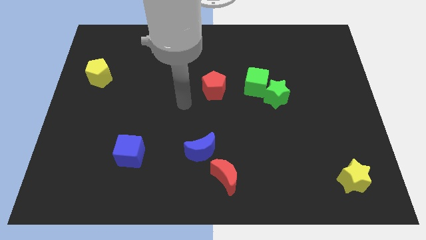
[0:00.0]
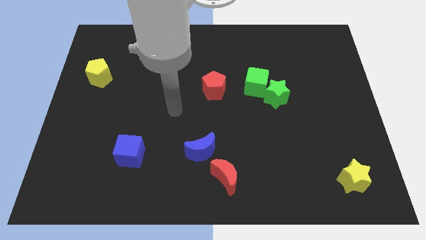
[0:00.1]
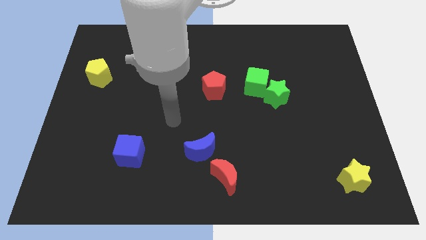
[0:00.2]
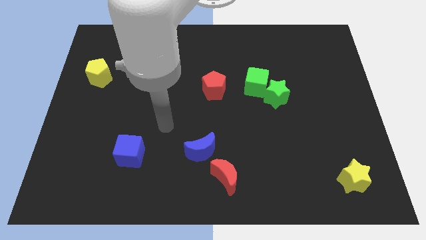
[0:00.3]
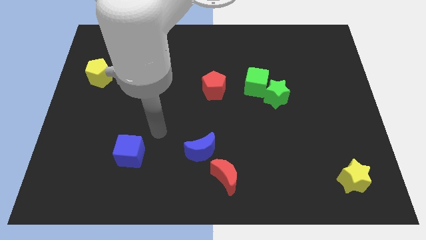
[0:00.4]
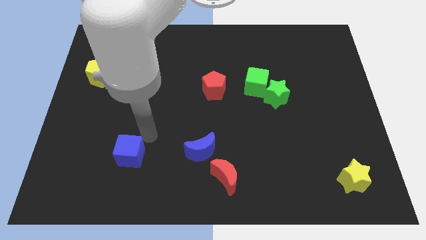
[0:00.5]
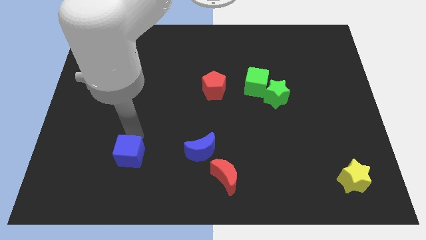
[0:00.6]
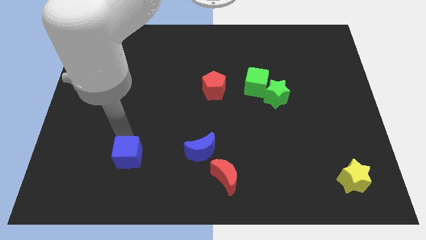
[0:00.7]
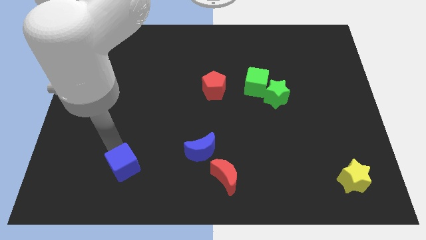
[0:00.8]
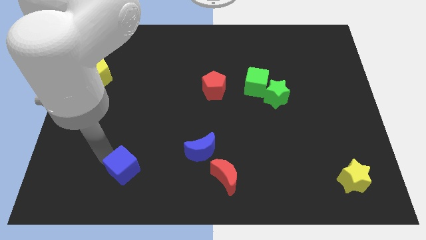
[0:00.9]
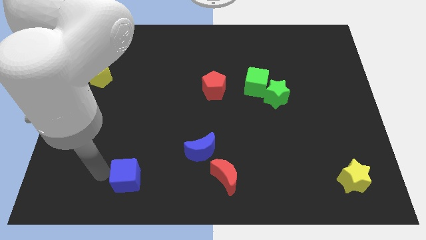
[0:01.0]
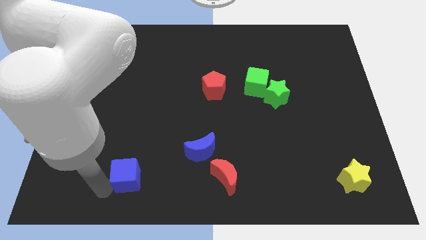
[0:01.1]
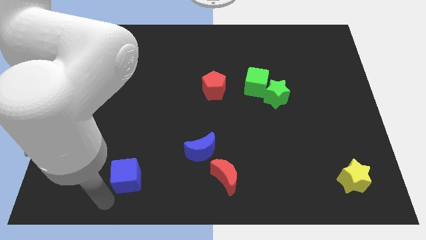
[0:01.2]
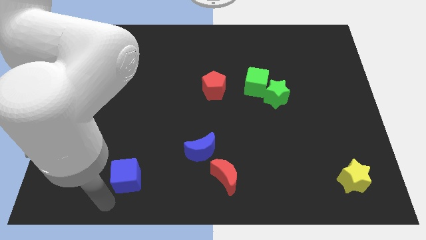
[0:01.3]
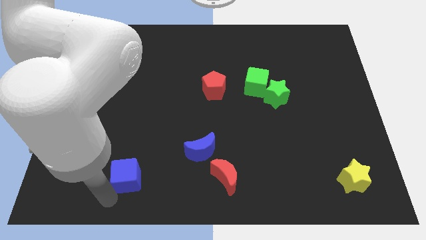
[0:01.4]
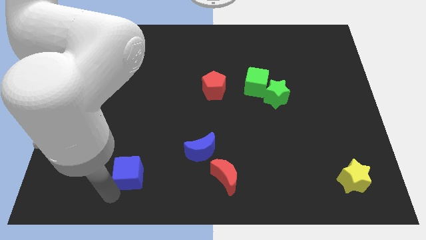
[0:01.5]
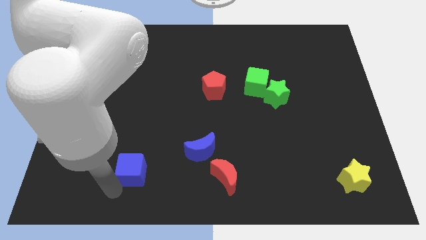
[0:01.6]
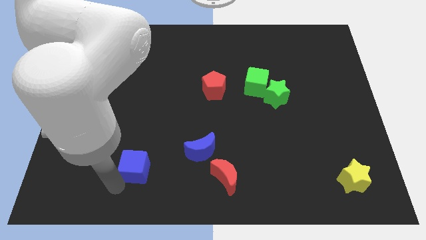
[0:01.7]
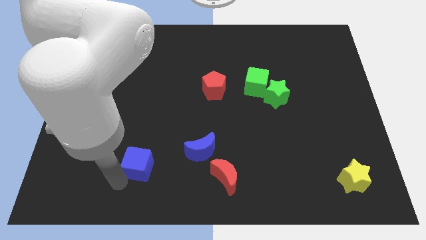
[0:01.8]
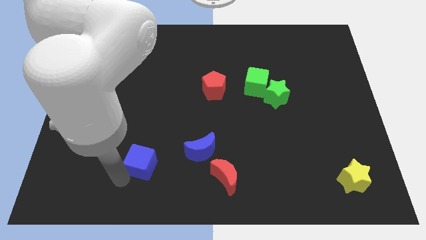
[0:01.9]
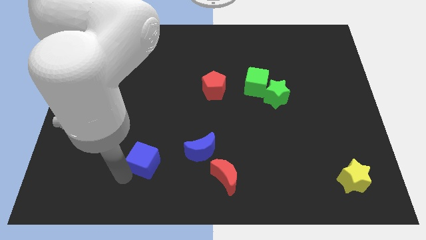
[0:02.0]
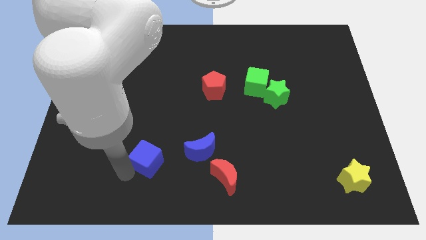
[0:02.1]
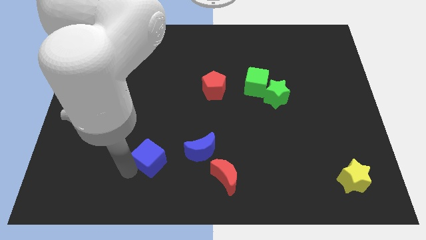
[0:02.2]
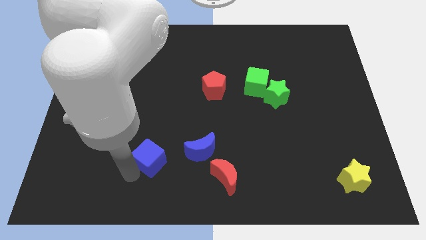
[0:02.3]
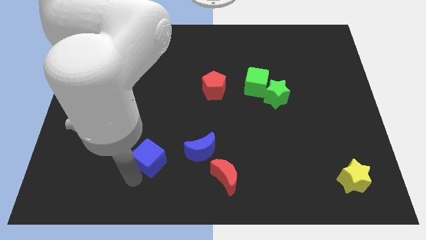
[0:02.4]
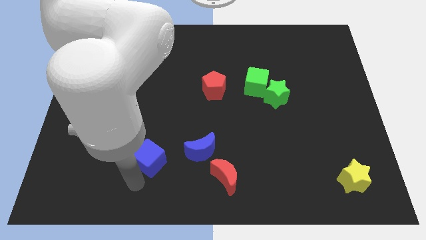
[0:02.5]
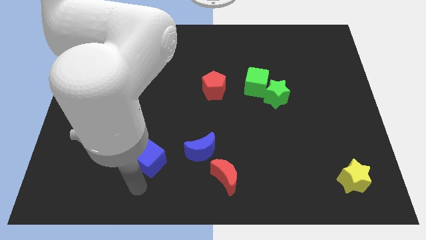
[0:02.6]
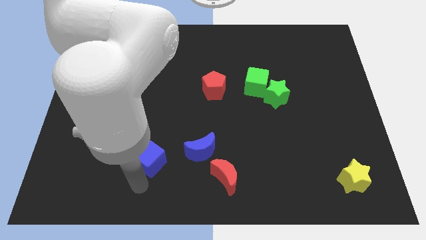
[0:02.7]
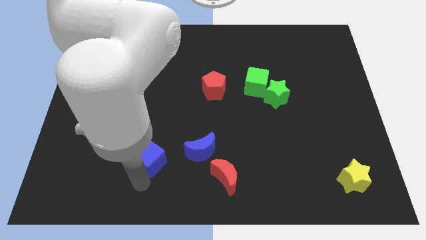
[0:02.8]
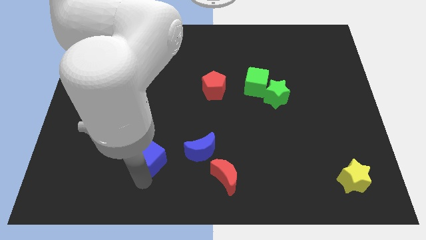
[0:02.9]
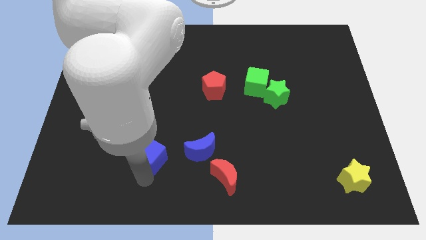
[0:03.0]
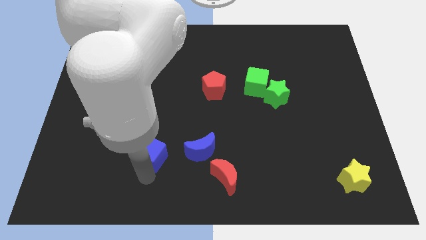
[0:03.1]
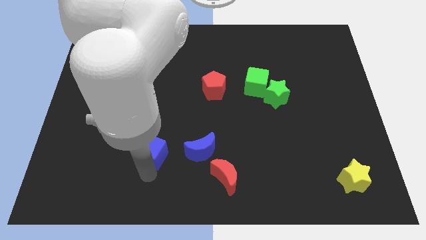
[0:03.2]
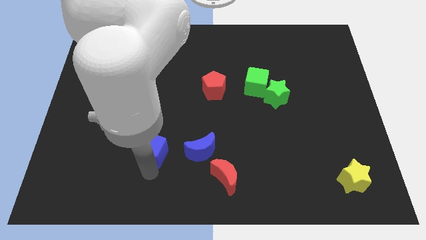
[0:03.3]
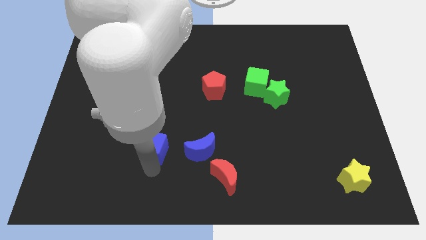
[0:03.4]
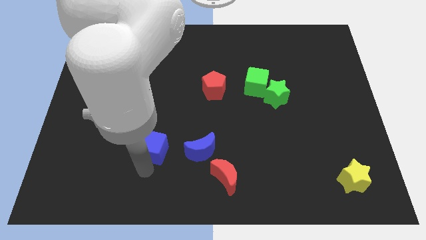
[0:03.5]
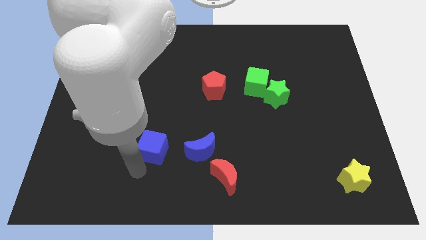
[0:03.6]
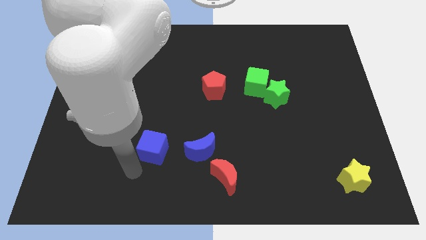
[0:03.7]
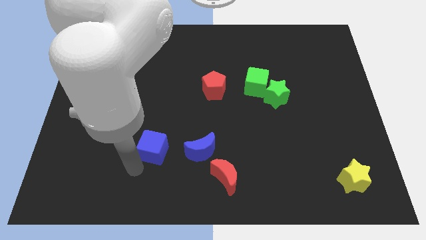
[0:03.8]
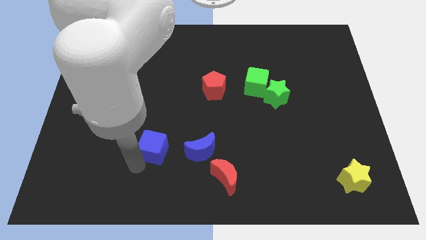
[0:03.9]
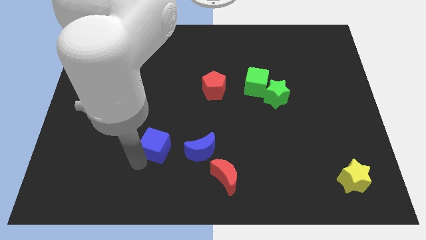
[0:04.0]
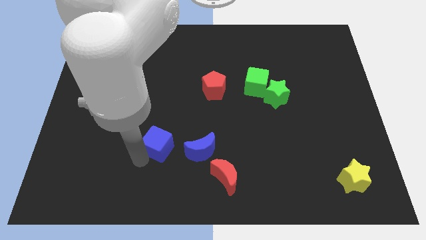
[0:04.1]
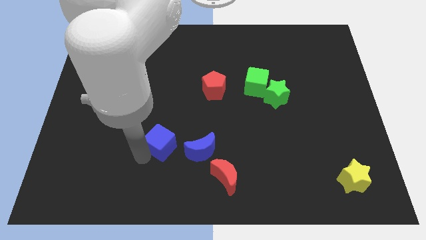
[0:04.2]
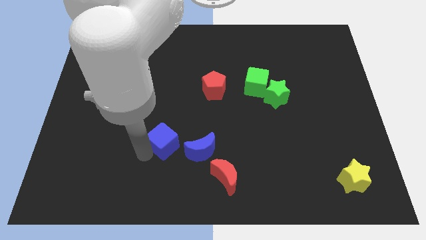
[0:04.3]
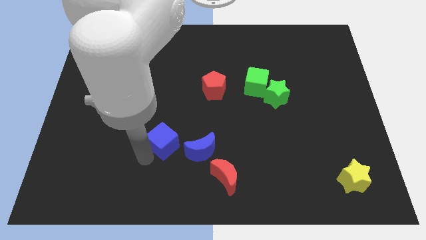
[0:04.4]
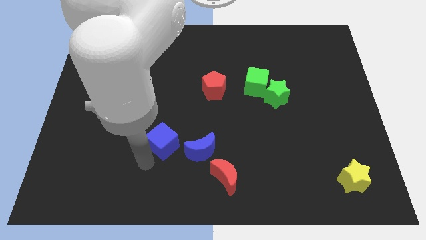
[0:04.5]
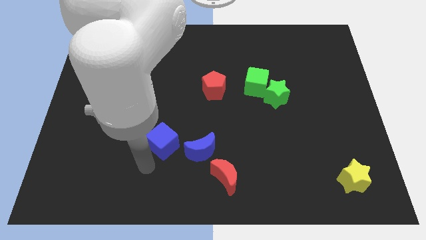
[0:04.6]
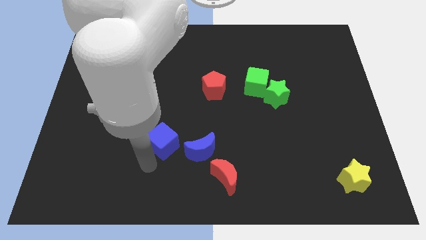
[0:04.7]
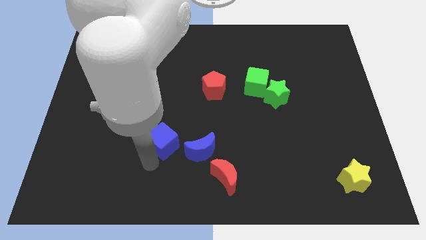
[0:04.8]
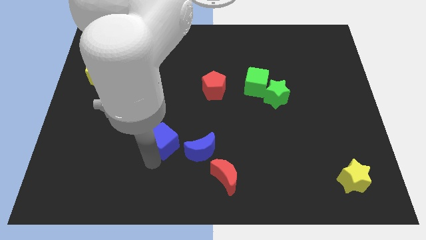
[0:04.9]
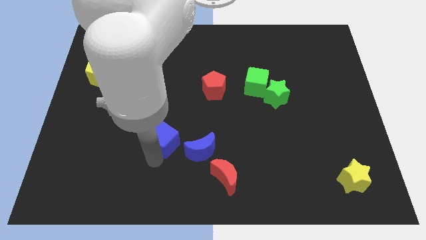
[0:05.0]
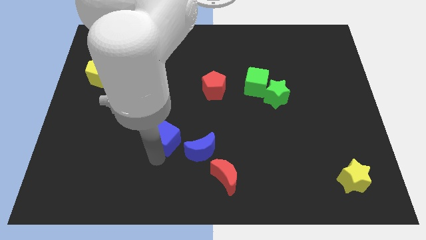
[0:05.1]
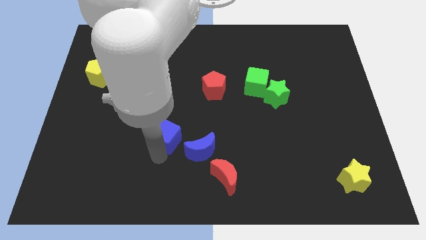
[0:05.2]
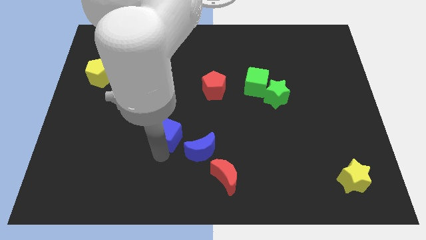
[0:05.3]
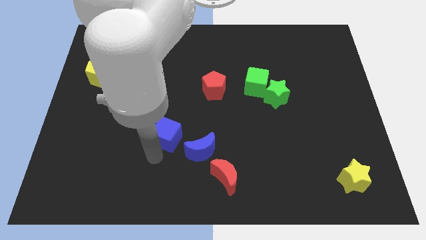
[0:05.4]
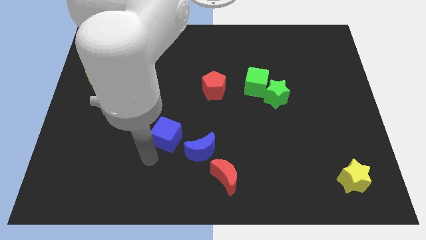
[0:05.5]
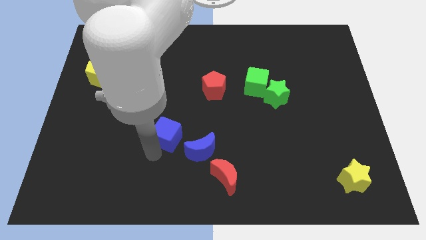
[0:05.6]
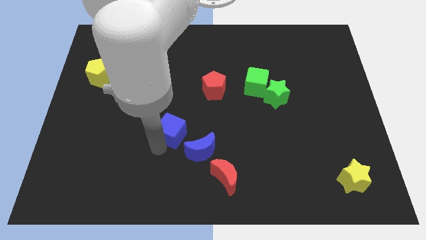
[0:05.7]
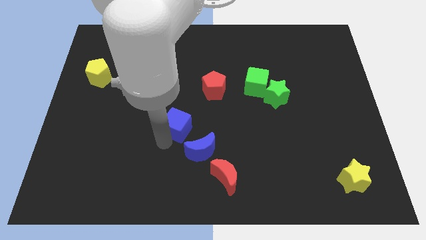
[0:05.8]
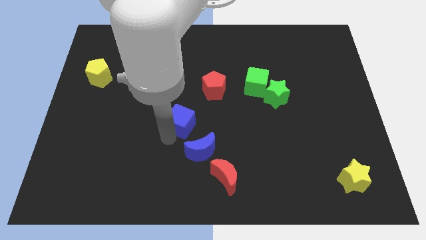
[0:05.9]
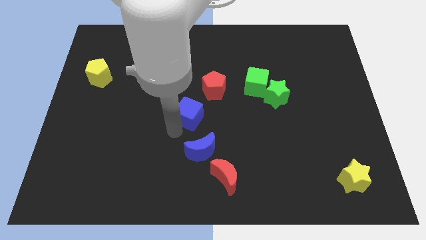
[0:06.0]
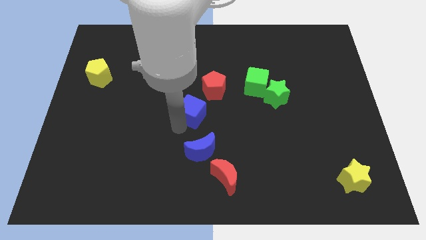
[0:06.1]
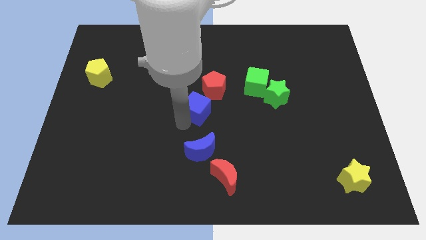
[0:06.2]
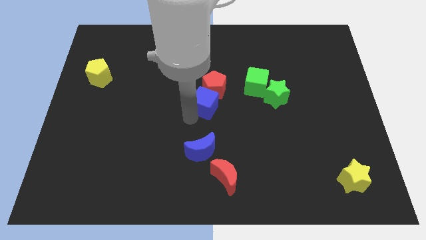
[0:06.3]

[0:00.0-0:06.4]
slide the blue cube to the red pentagon

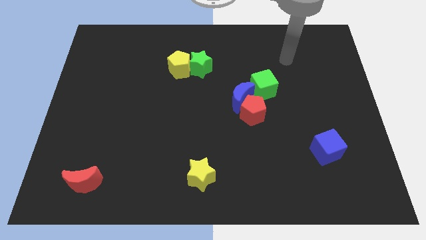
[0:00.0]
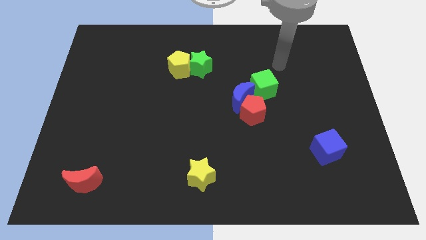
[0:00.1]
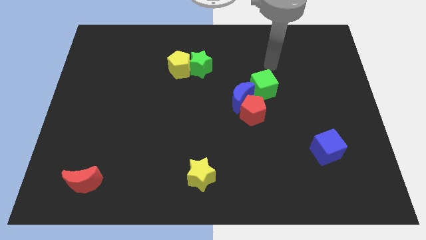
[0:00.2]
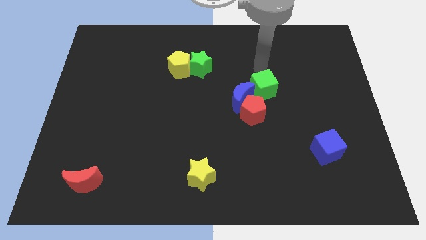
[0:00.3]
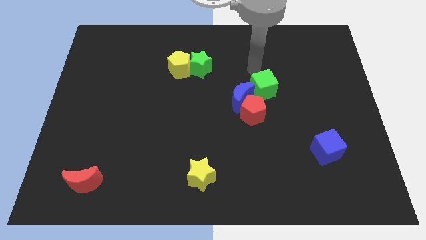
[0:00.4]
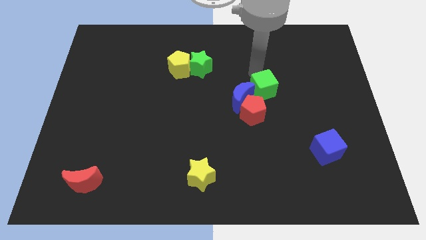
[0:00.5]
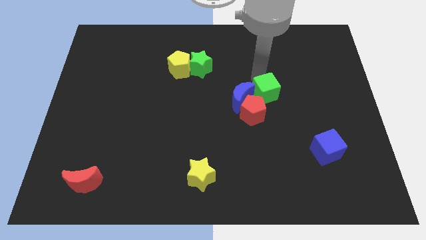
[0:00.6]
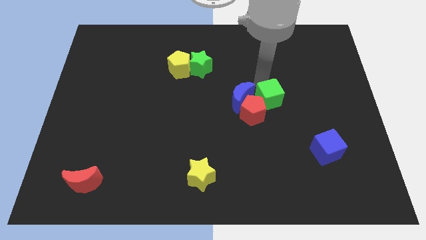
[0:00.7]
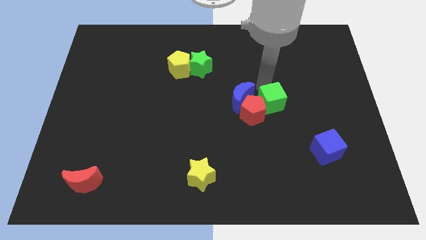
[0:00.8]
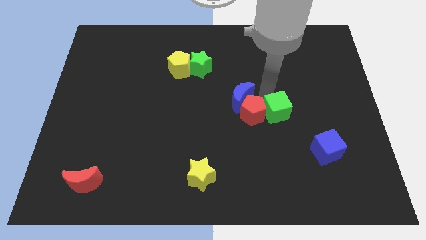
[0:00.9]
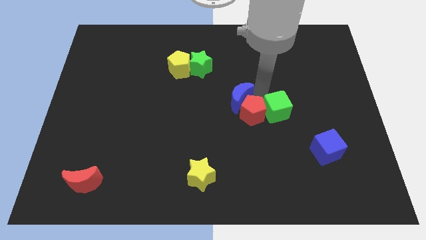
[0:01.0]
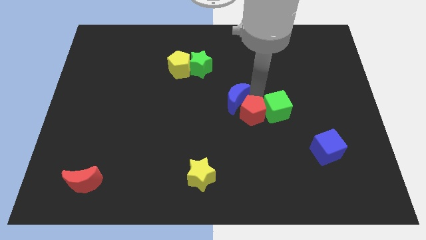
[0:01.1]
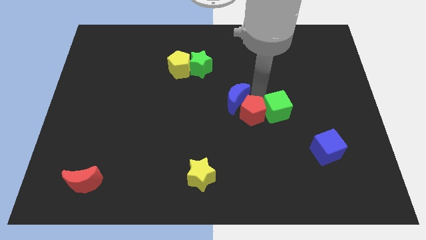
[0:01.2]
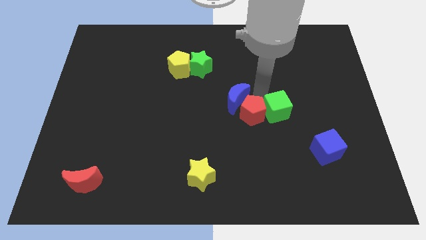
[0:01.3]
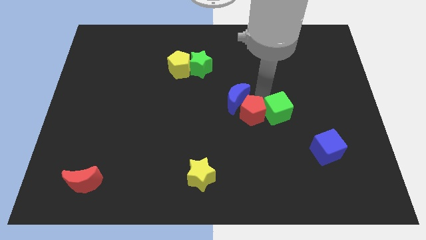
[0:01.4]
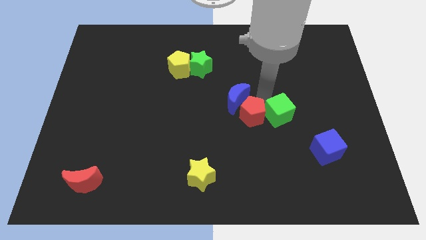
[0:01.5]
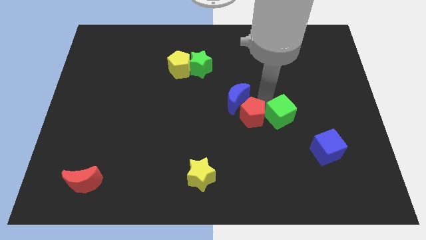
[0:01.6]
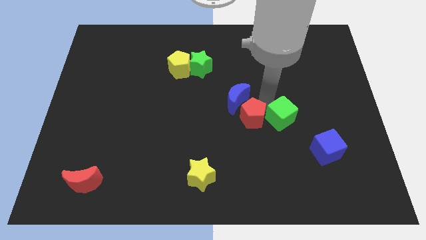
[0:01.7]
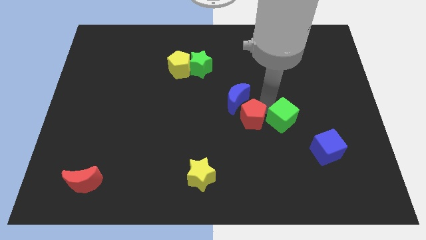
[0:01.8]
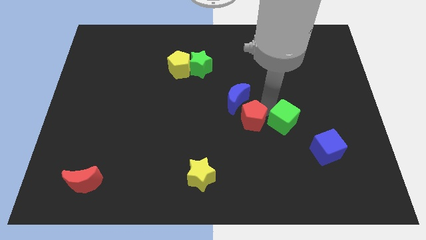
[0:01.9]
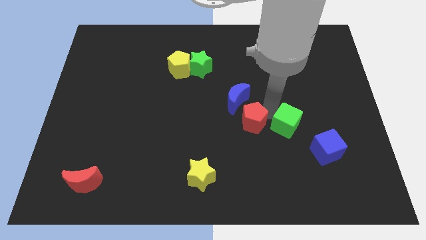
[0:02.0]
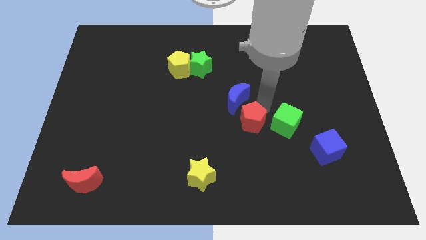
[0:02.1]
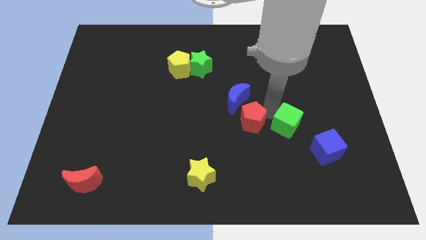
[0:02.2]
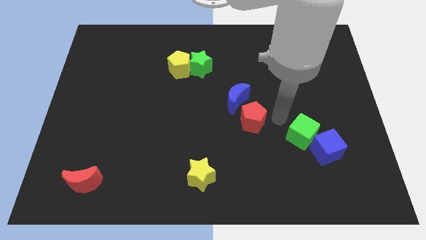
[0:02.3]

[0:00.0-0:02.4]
put the green cube to the blue cube
